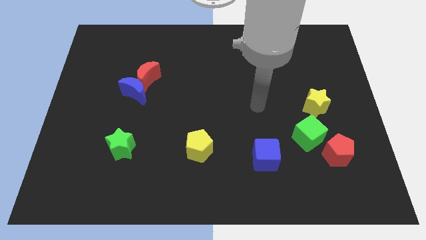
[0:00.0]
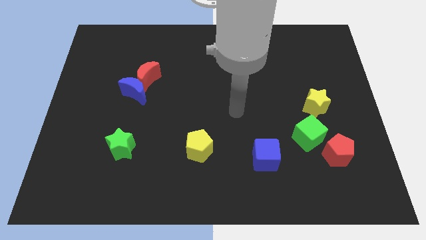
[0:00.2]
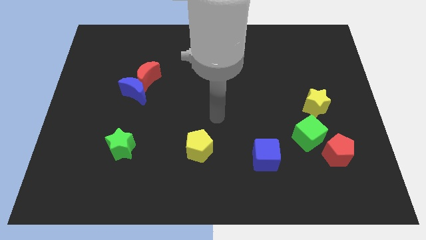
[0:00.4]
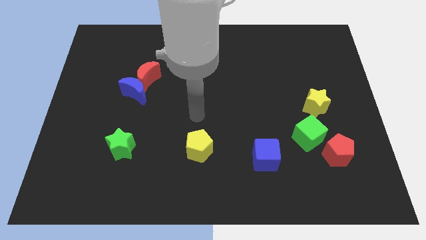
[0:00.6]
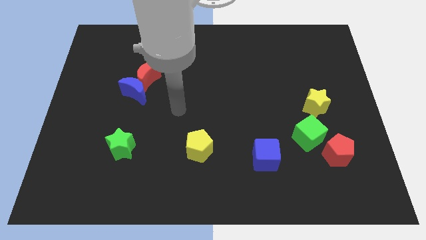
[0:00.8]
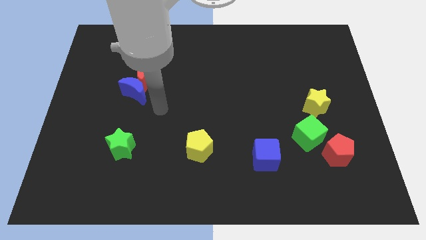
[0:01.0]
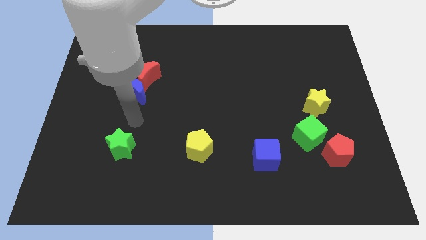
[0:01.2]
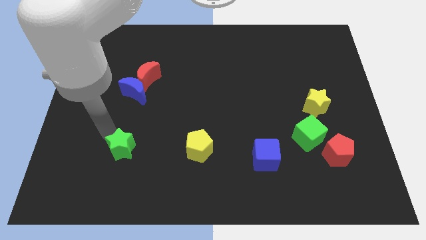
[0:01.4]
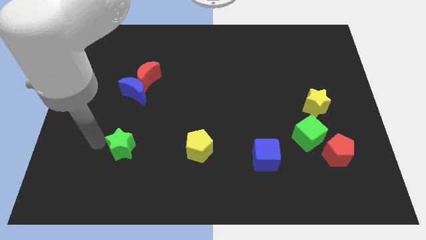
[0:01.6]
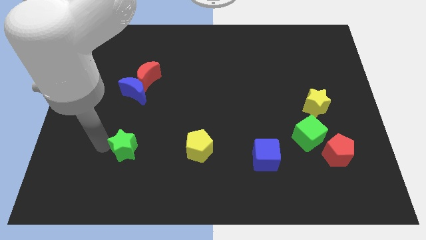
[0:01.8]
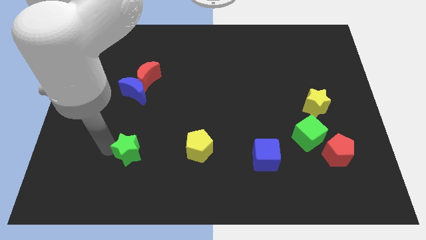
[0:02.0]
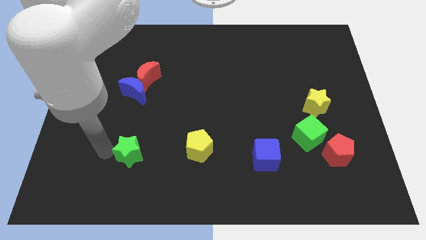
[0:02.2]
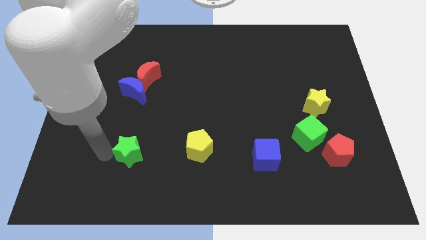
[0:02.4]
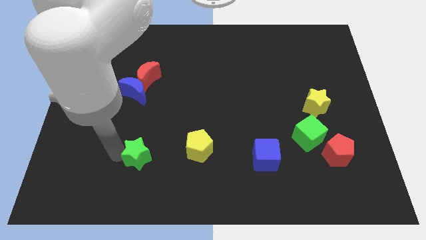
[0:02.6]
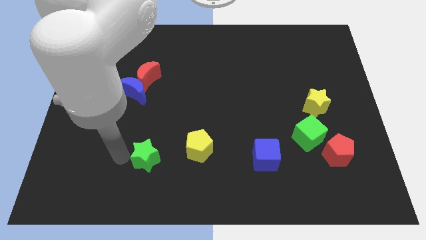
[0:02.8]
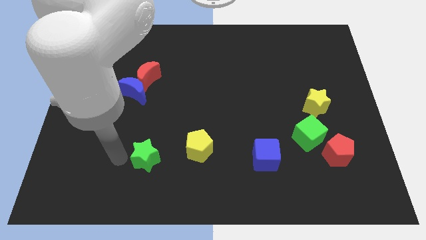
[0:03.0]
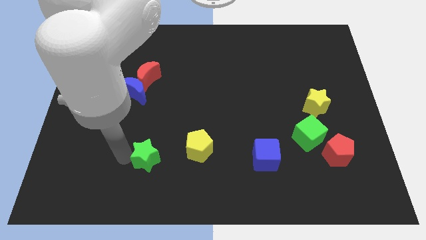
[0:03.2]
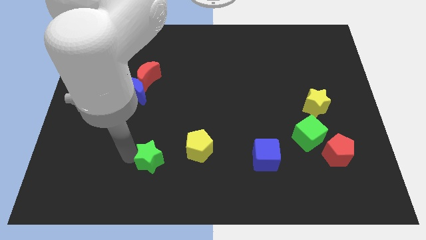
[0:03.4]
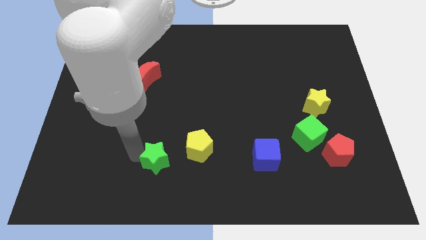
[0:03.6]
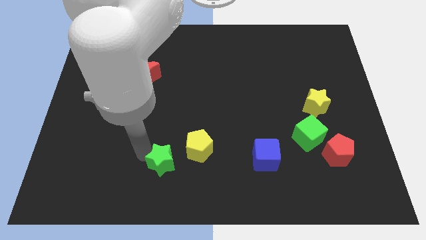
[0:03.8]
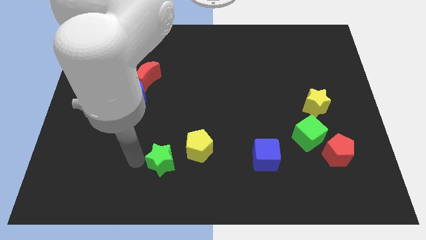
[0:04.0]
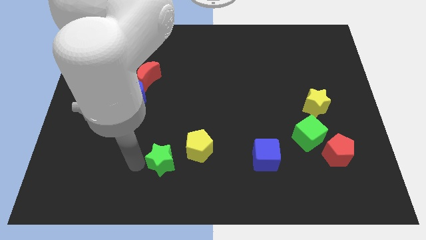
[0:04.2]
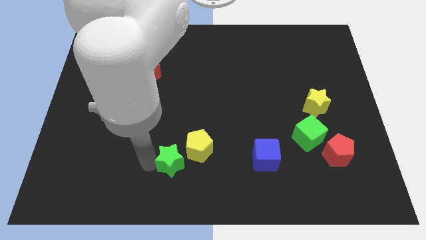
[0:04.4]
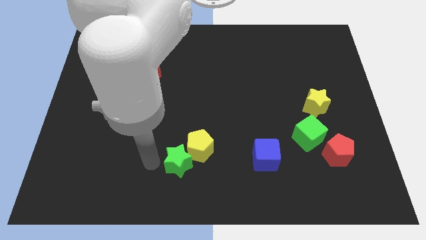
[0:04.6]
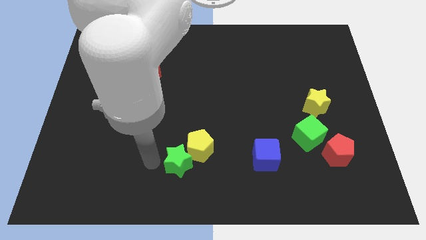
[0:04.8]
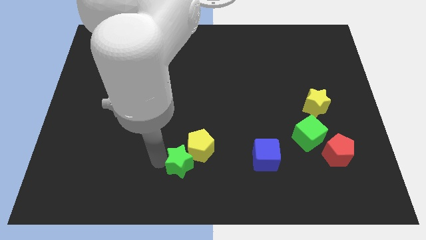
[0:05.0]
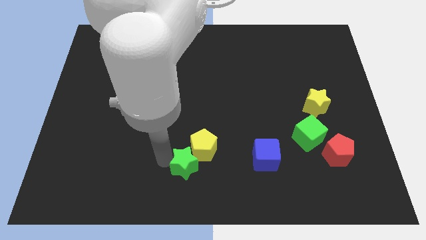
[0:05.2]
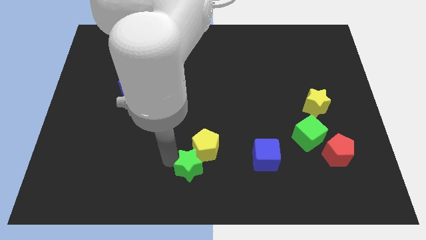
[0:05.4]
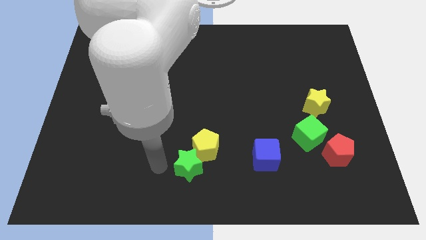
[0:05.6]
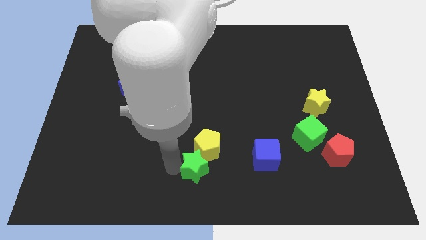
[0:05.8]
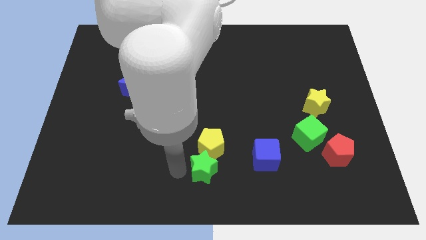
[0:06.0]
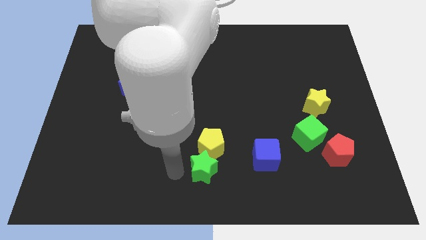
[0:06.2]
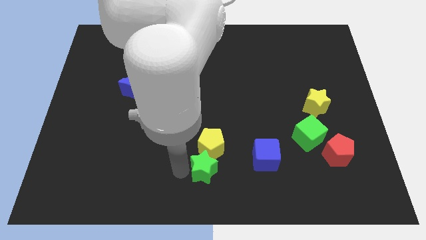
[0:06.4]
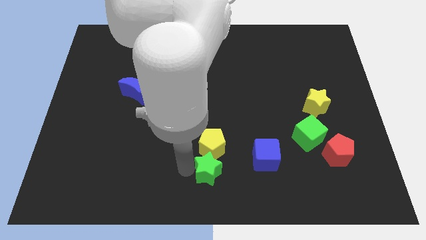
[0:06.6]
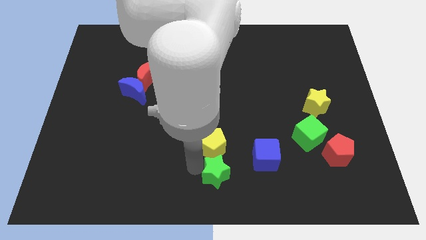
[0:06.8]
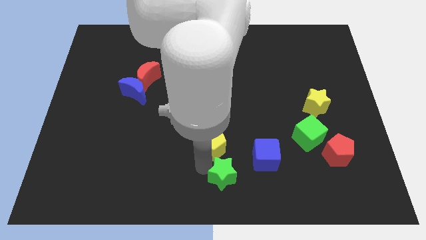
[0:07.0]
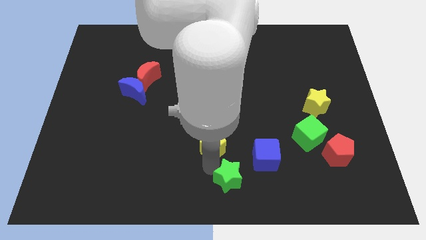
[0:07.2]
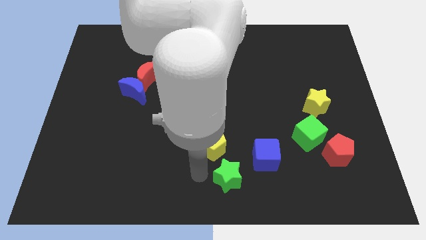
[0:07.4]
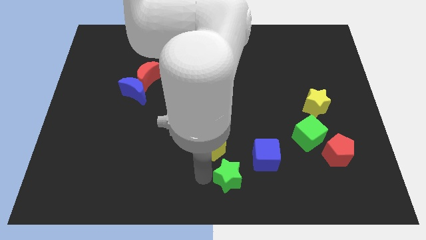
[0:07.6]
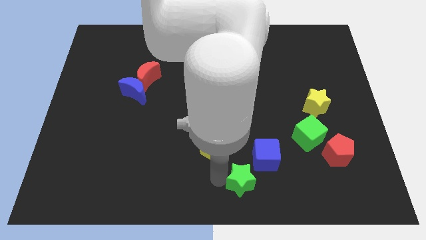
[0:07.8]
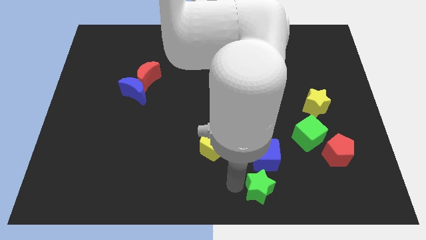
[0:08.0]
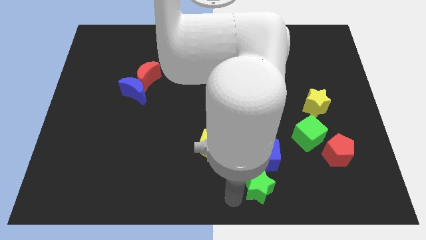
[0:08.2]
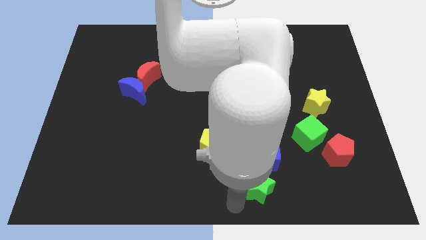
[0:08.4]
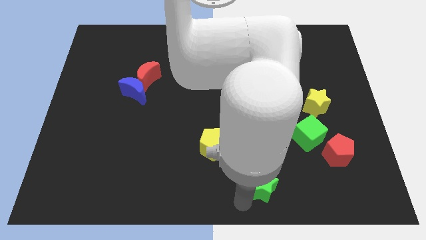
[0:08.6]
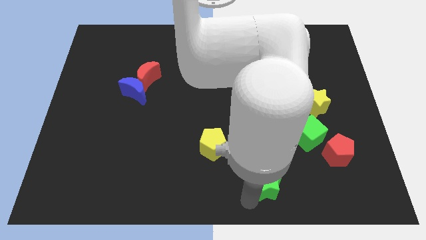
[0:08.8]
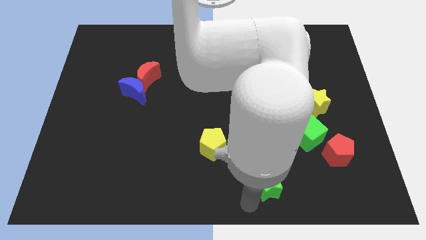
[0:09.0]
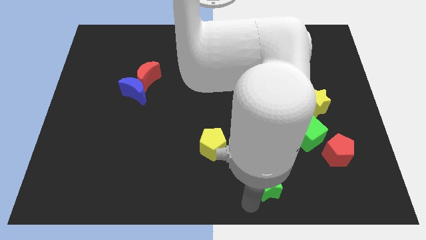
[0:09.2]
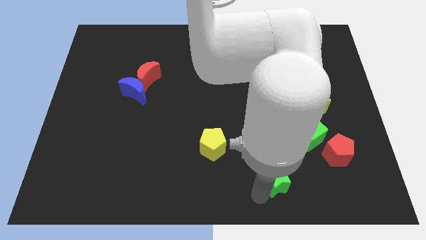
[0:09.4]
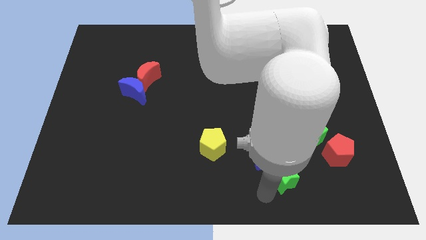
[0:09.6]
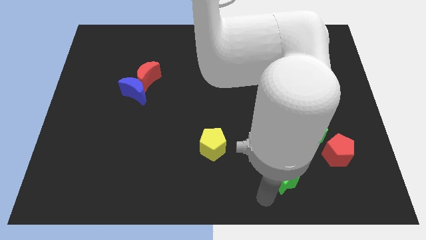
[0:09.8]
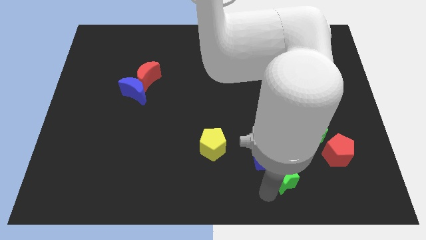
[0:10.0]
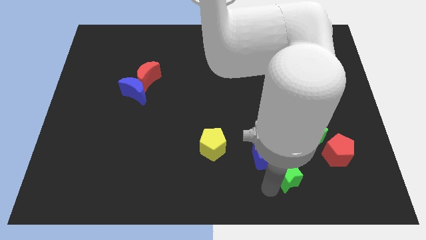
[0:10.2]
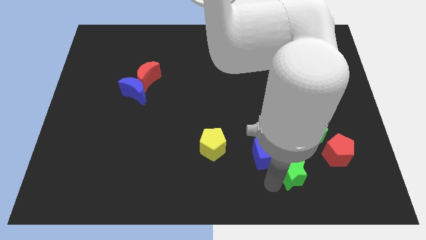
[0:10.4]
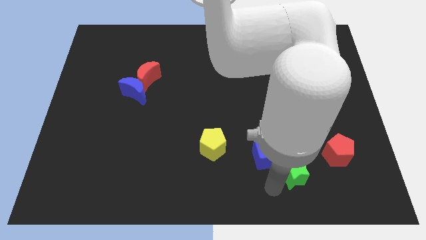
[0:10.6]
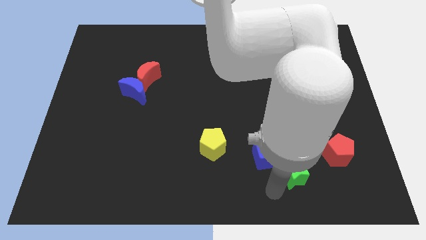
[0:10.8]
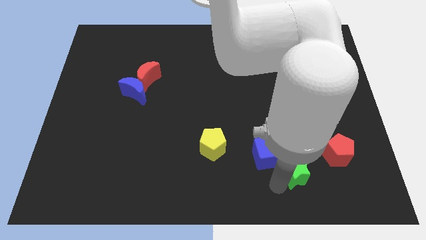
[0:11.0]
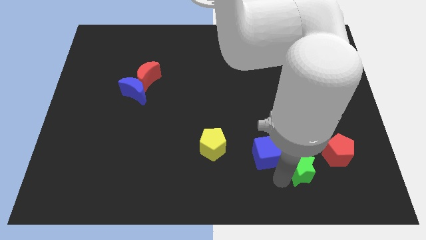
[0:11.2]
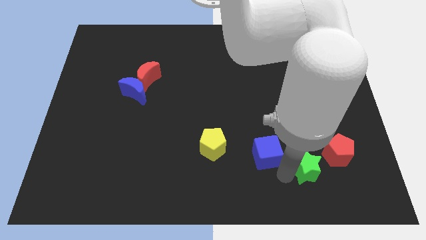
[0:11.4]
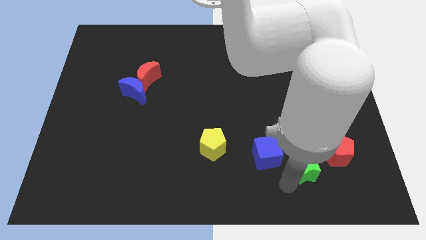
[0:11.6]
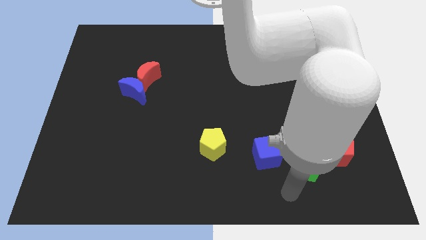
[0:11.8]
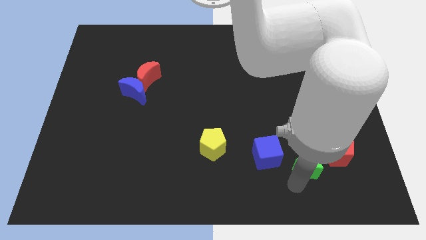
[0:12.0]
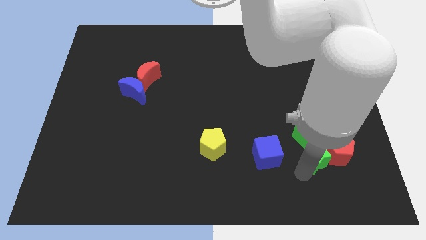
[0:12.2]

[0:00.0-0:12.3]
put the green star to the red pentagon
